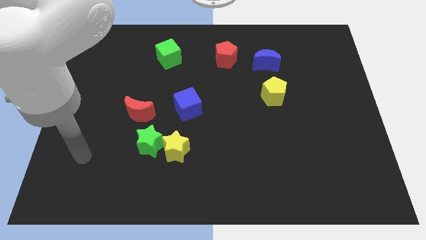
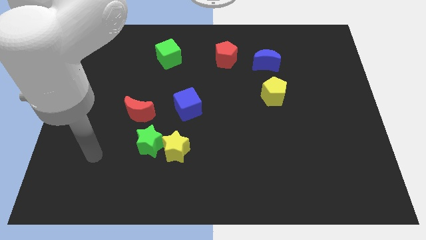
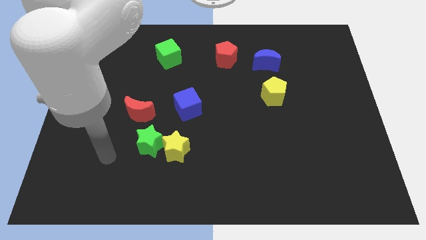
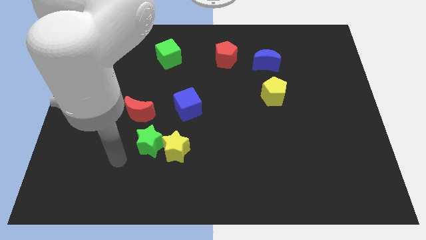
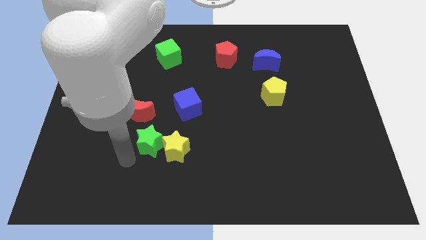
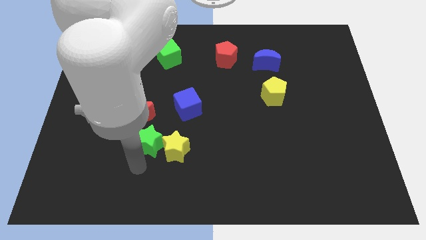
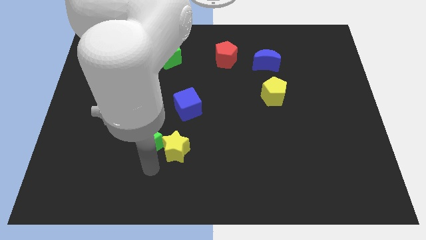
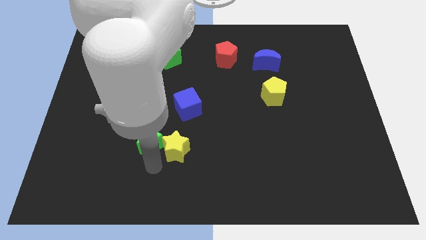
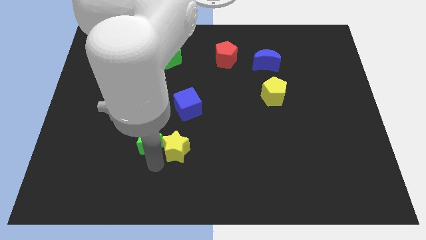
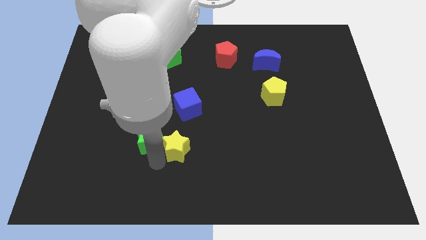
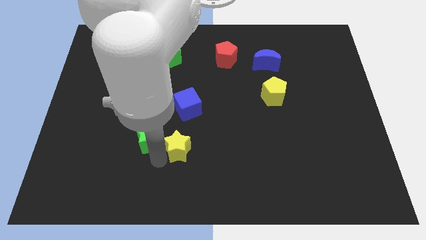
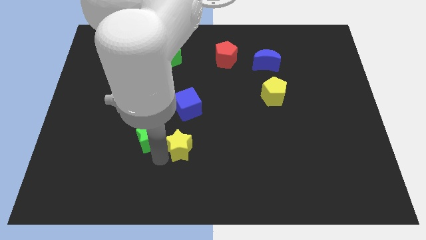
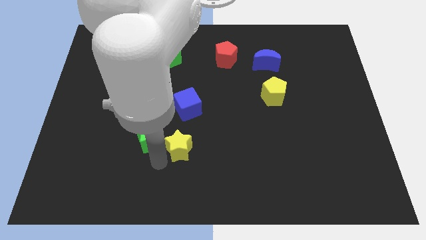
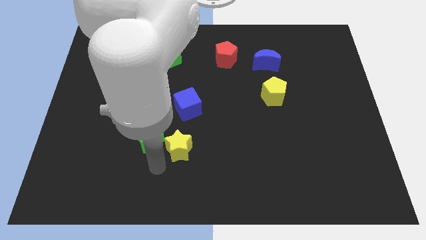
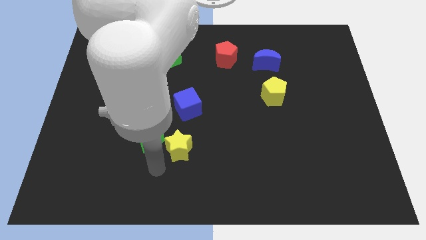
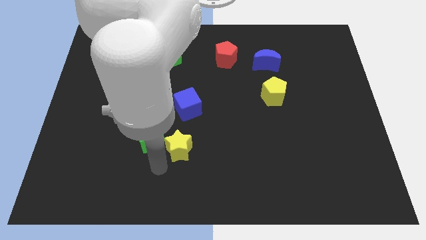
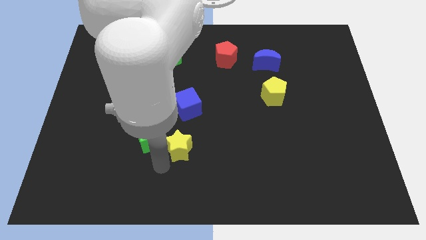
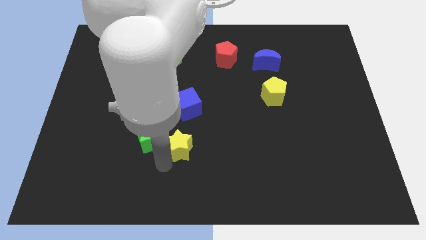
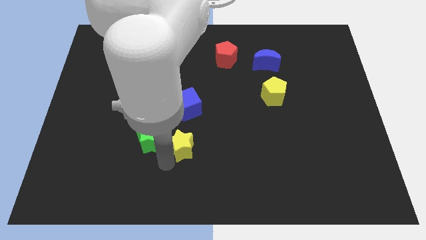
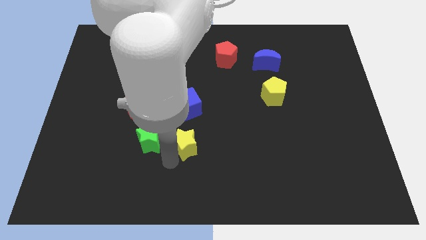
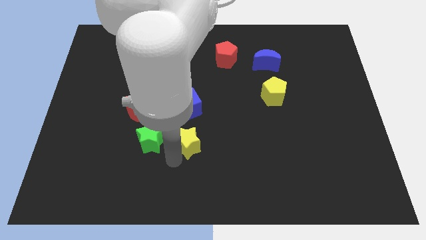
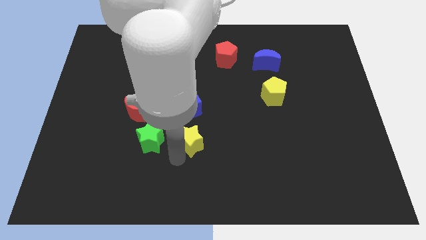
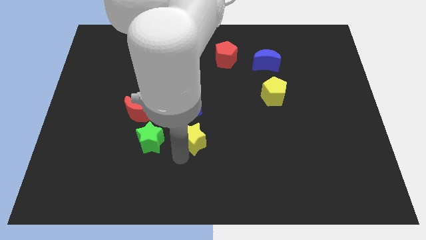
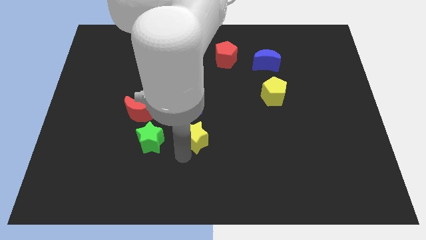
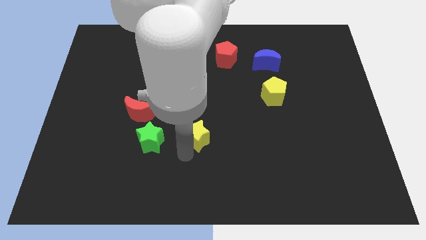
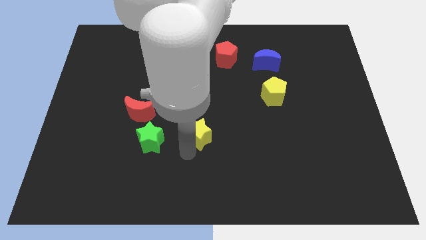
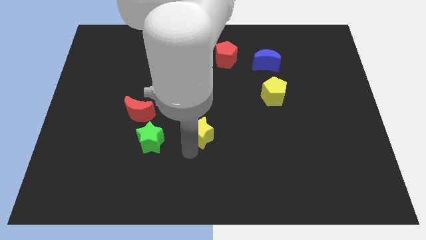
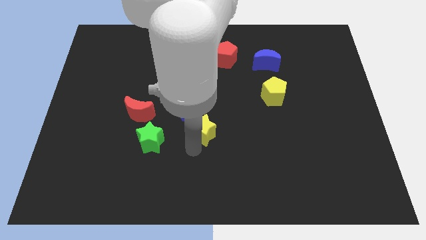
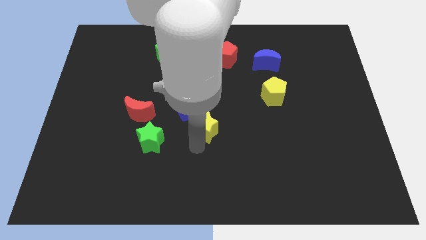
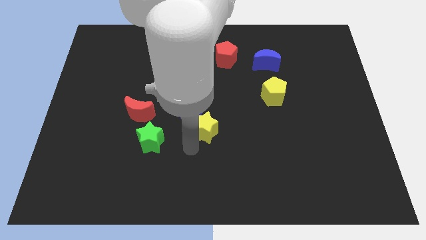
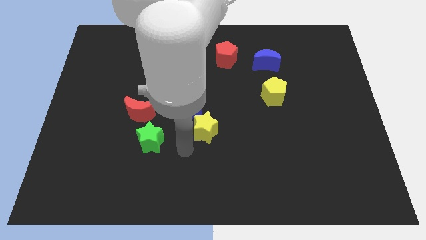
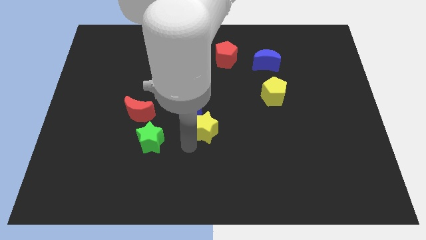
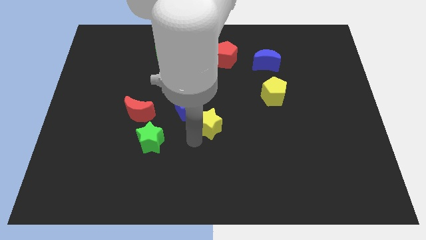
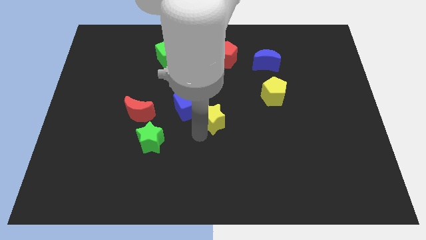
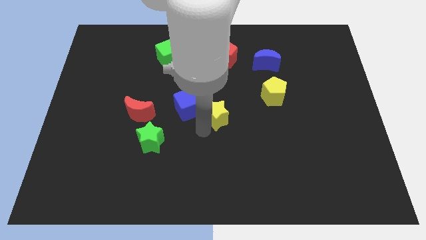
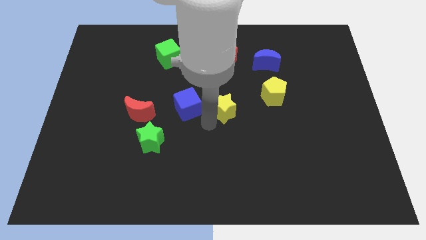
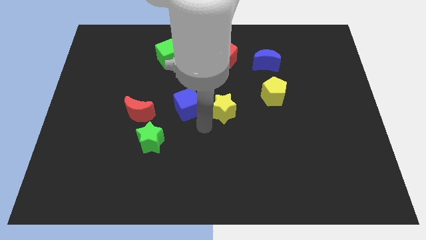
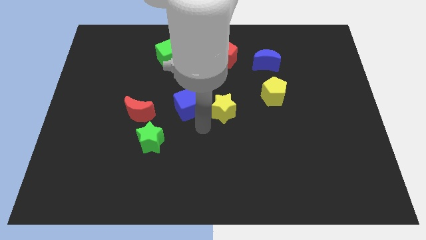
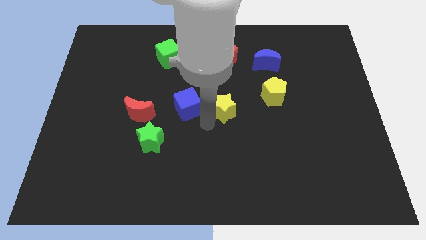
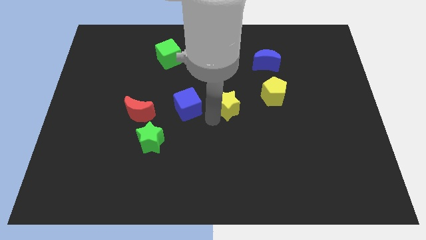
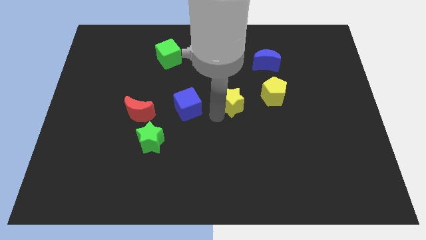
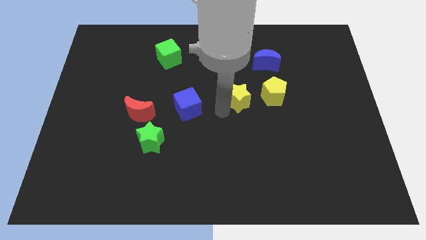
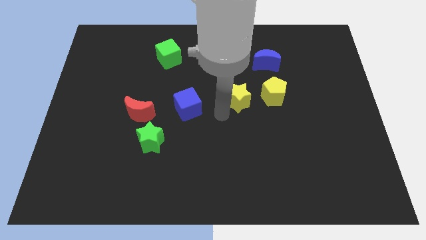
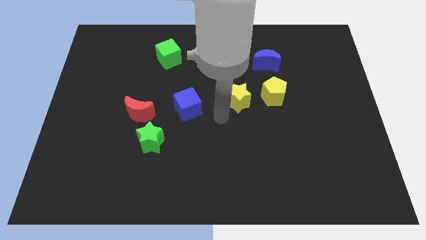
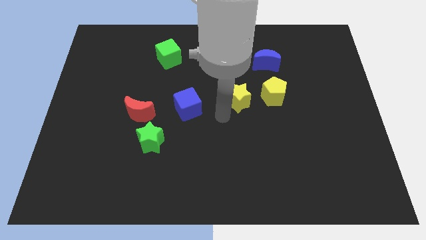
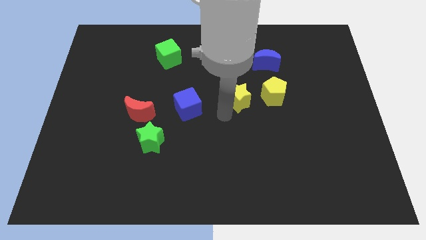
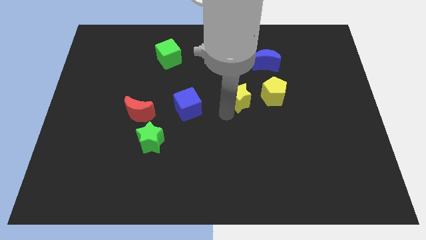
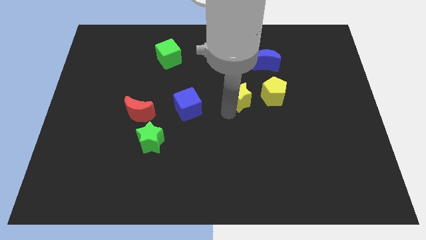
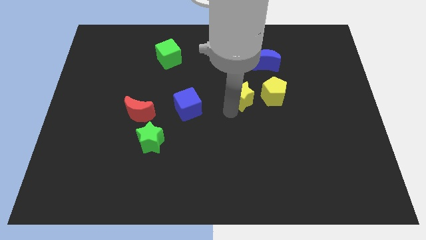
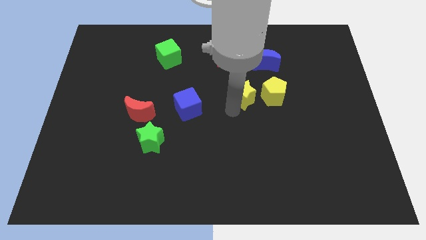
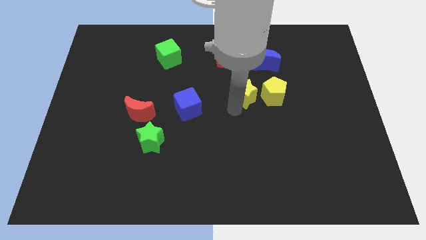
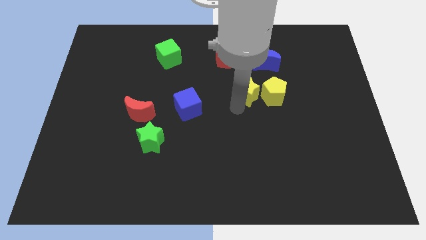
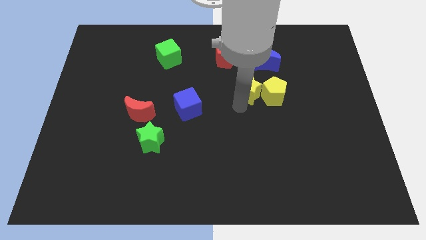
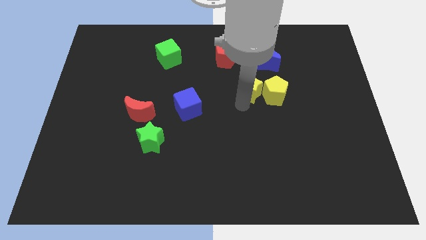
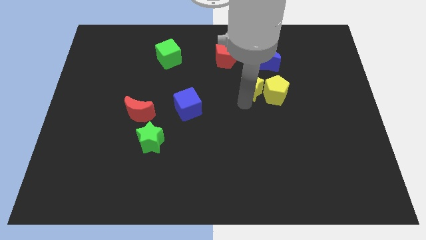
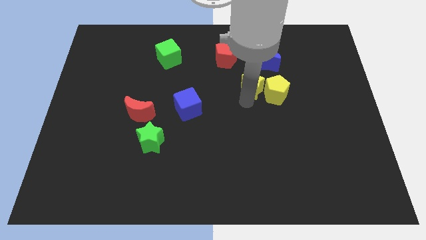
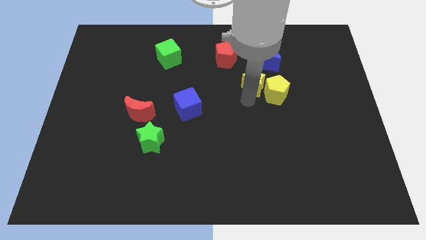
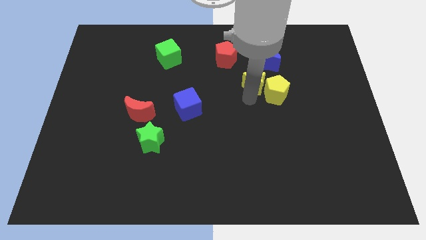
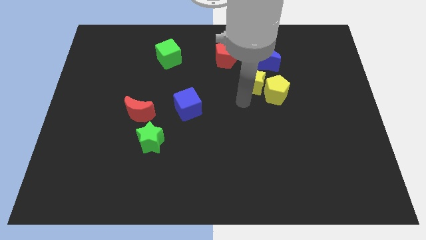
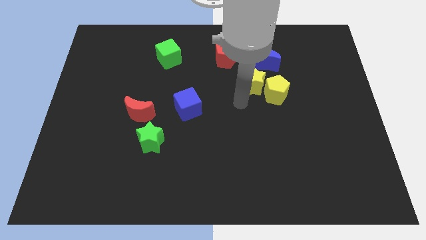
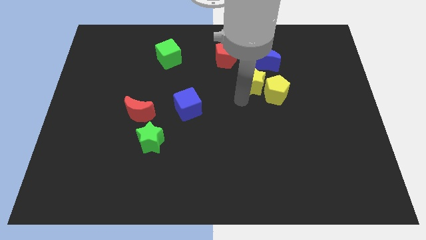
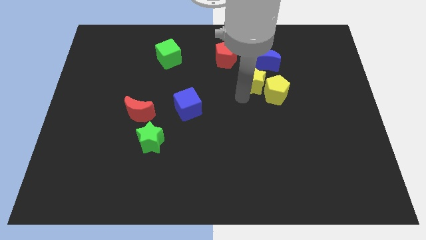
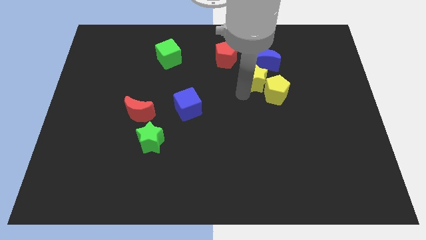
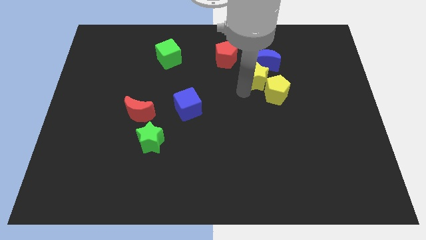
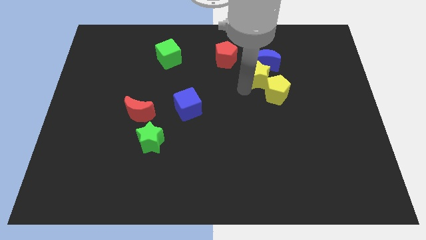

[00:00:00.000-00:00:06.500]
move the yellow star towards the blue moon
